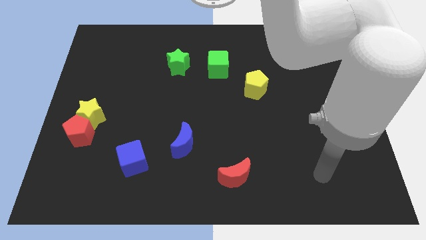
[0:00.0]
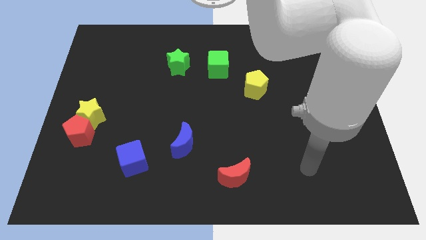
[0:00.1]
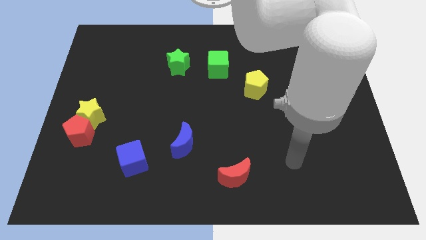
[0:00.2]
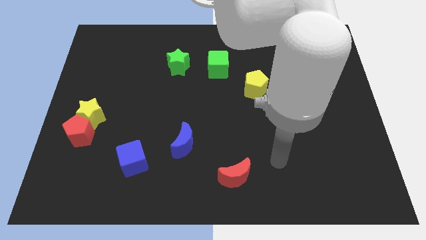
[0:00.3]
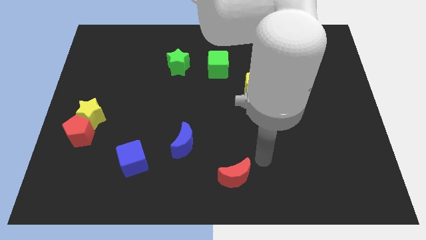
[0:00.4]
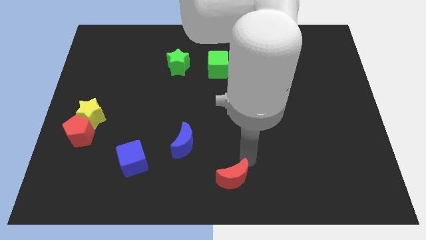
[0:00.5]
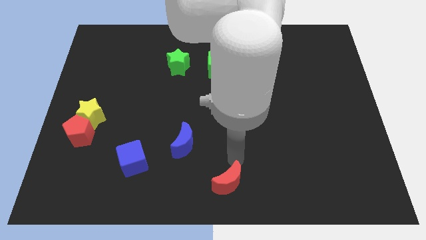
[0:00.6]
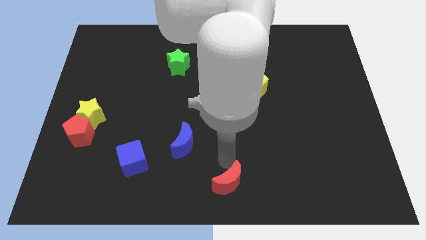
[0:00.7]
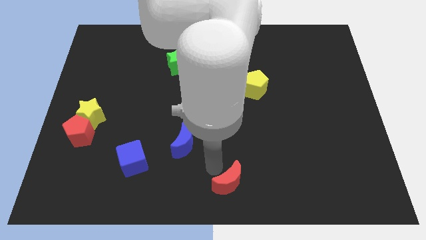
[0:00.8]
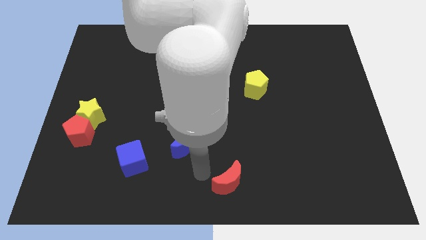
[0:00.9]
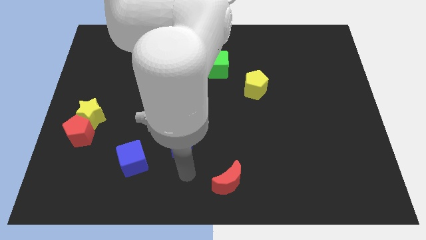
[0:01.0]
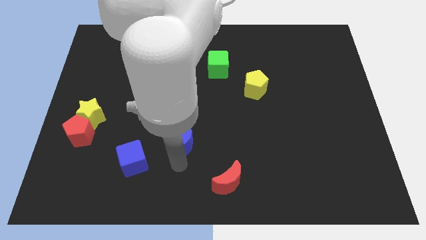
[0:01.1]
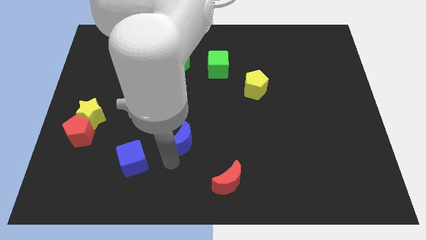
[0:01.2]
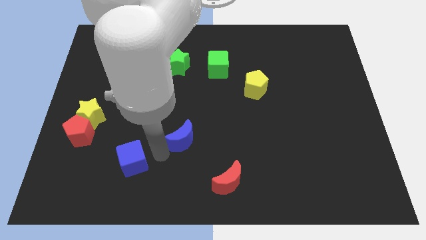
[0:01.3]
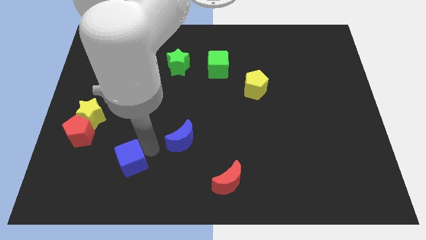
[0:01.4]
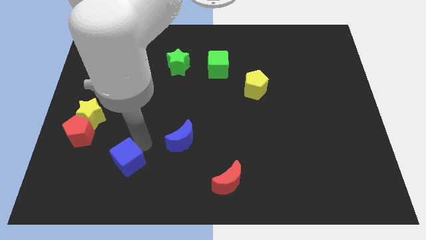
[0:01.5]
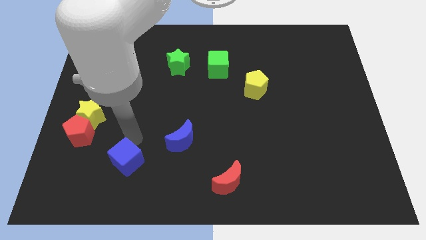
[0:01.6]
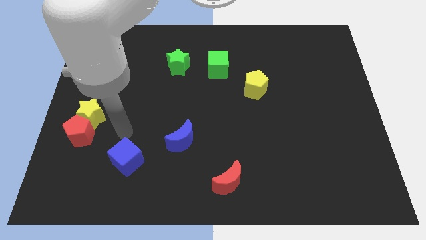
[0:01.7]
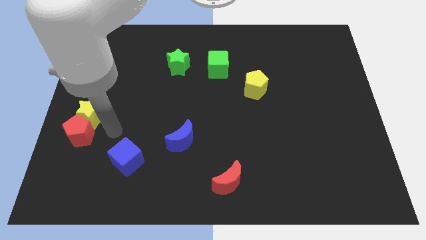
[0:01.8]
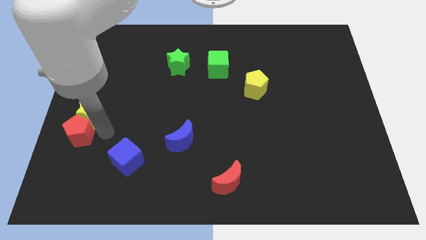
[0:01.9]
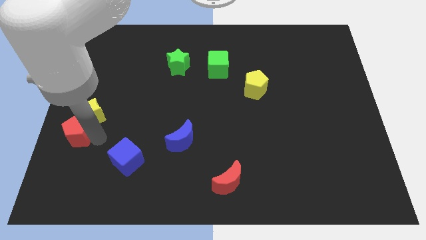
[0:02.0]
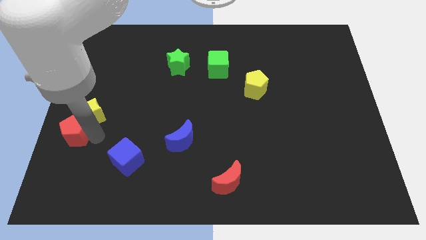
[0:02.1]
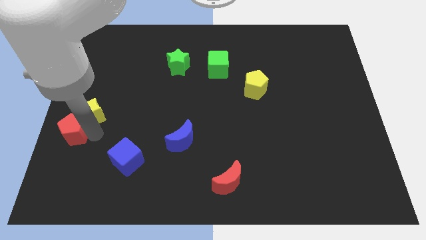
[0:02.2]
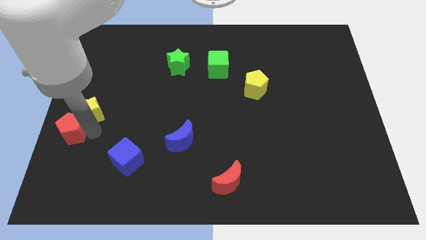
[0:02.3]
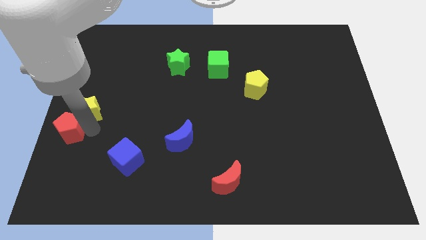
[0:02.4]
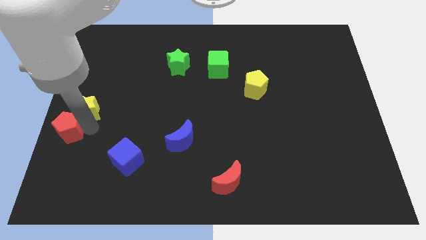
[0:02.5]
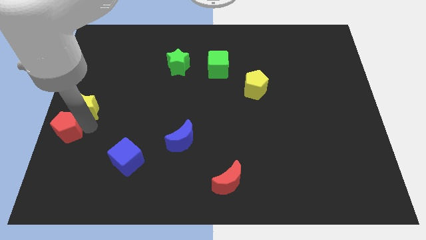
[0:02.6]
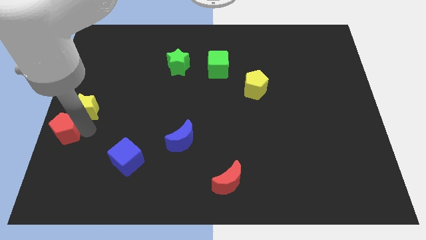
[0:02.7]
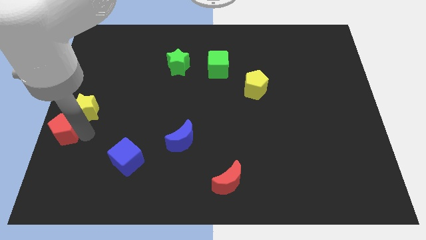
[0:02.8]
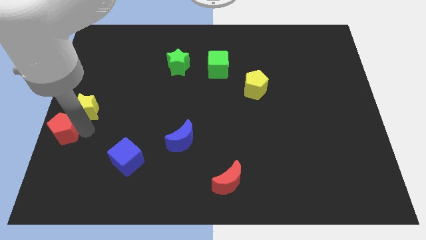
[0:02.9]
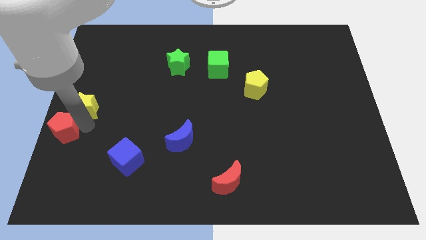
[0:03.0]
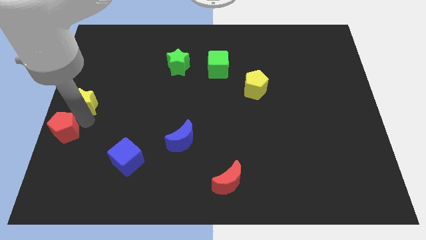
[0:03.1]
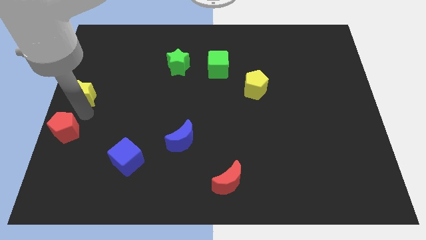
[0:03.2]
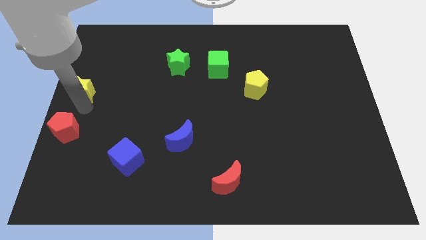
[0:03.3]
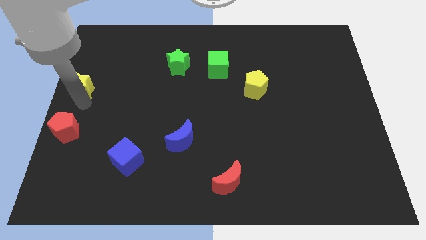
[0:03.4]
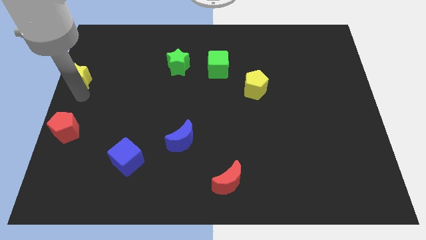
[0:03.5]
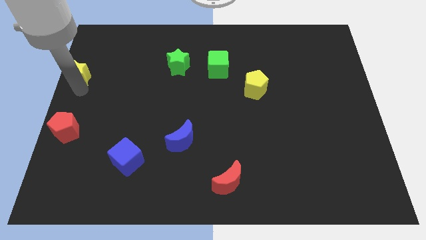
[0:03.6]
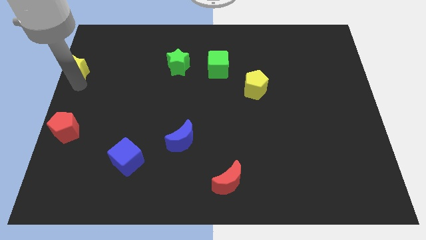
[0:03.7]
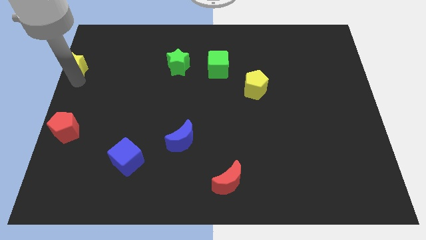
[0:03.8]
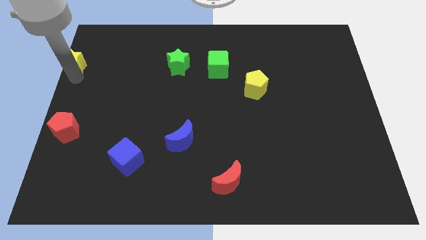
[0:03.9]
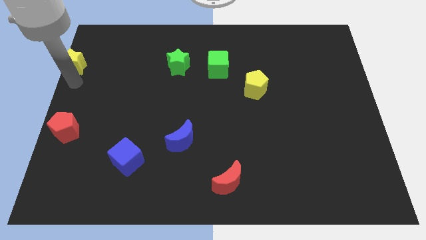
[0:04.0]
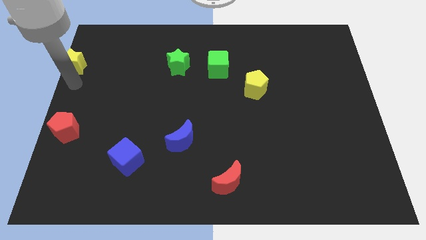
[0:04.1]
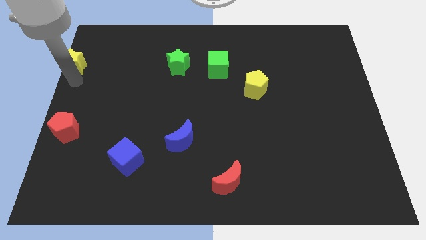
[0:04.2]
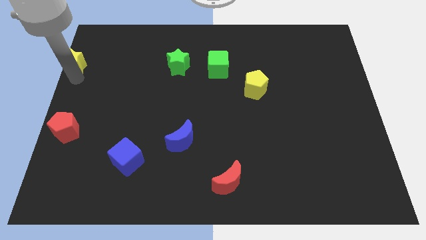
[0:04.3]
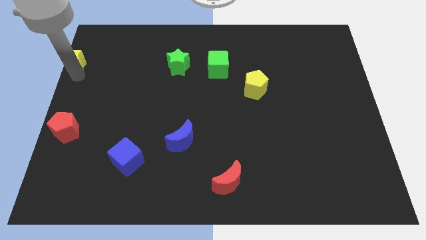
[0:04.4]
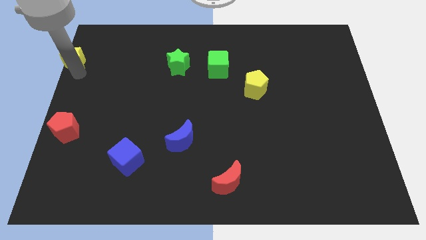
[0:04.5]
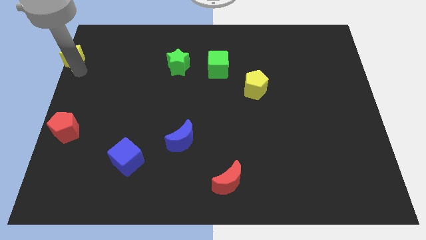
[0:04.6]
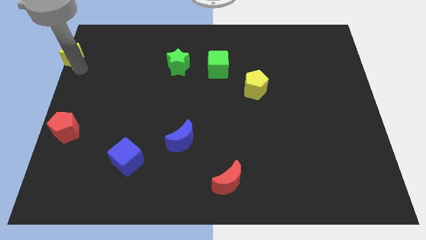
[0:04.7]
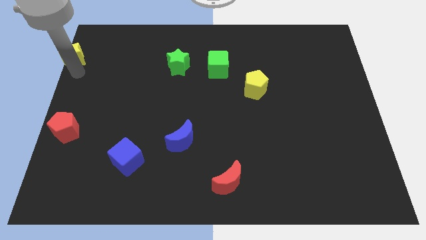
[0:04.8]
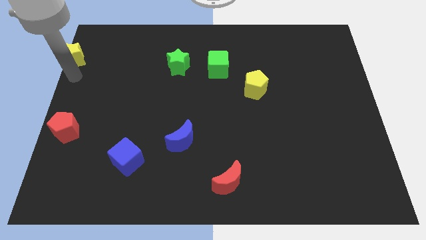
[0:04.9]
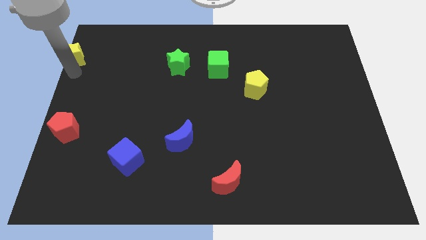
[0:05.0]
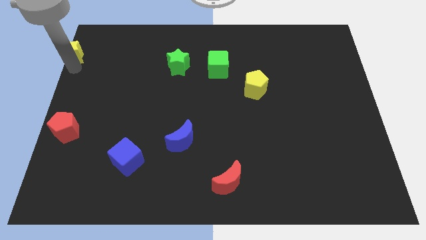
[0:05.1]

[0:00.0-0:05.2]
push the yellow star to the top left corner

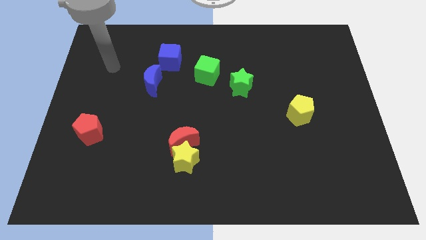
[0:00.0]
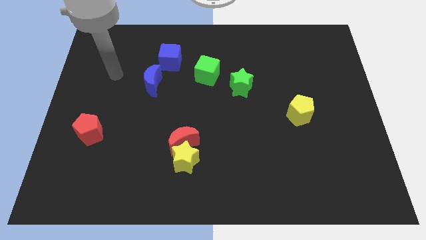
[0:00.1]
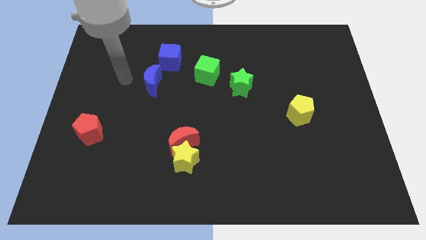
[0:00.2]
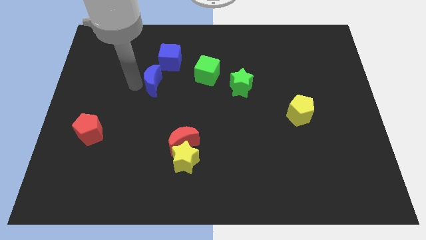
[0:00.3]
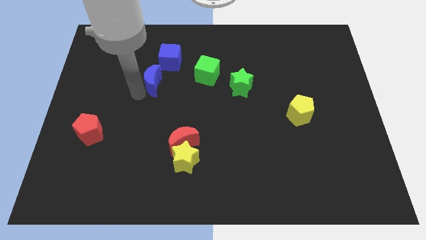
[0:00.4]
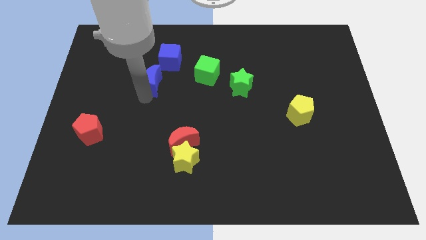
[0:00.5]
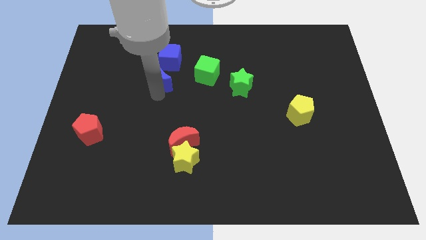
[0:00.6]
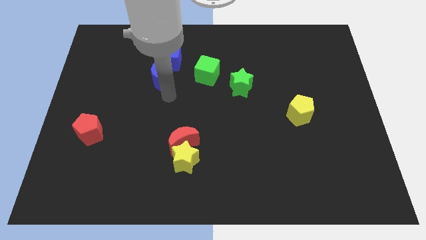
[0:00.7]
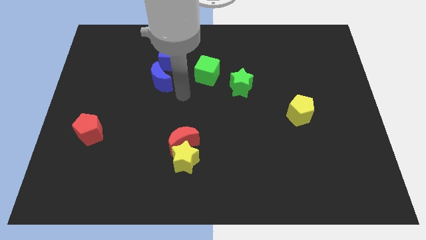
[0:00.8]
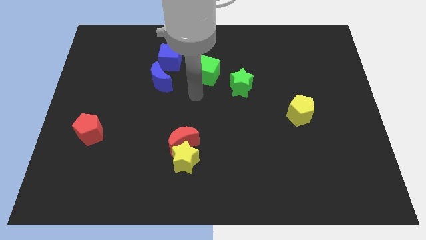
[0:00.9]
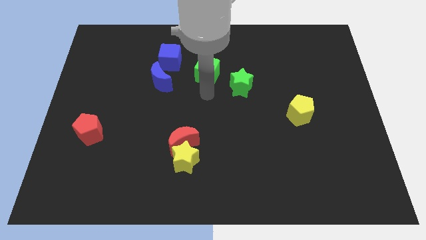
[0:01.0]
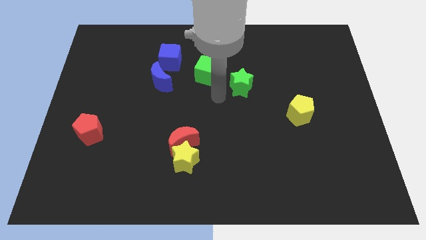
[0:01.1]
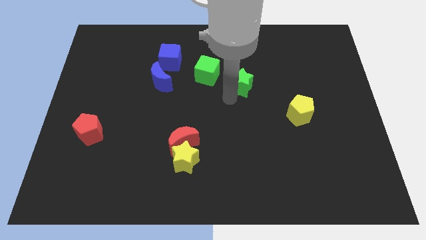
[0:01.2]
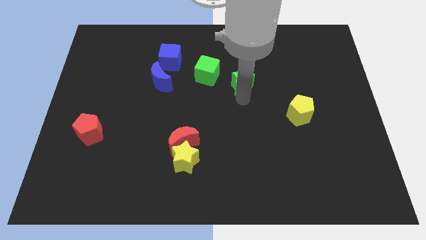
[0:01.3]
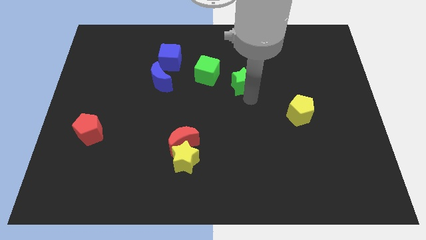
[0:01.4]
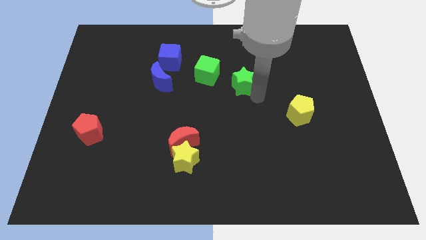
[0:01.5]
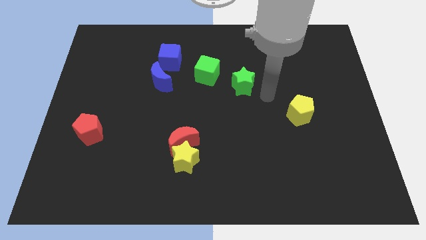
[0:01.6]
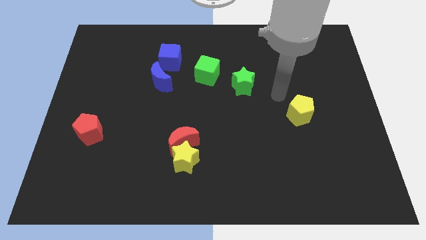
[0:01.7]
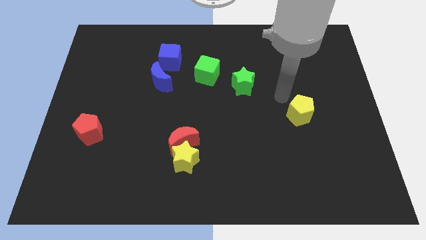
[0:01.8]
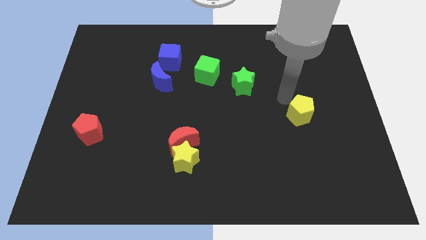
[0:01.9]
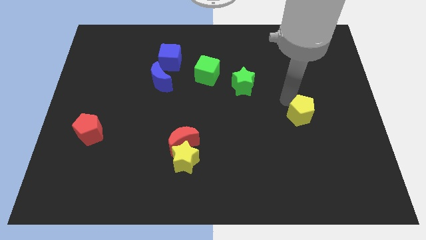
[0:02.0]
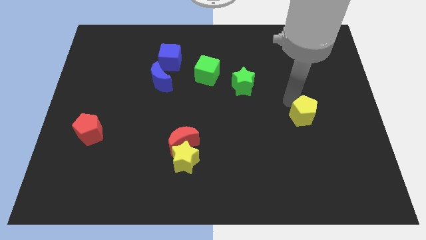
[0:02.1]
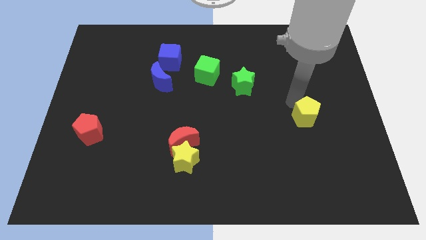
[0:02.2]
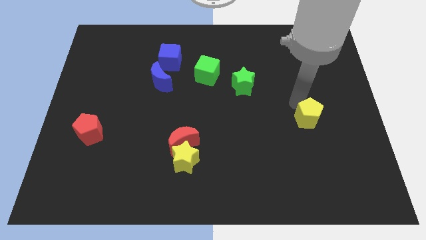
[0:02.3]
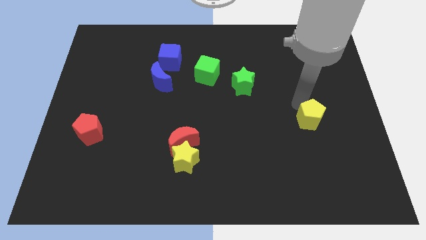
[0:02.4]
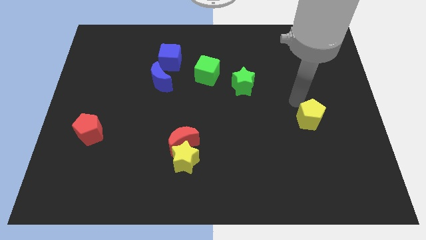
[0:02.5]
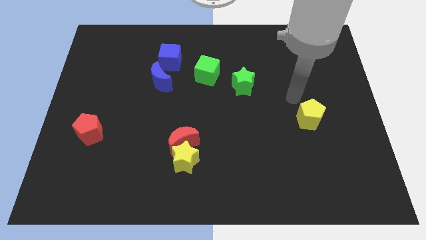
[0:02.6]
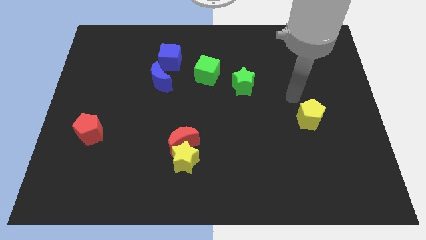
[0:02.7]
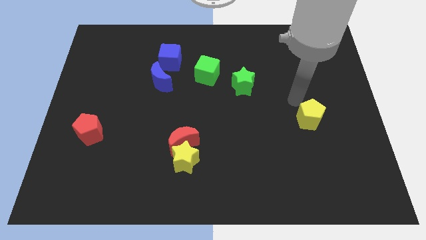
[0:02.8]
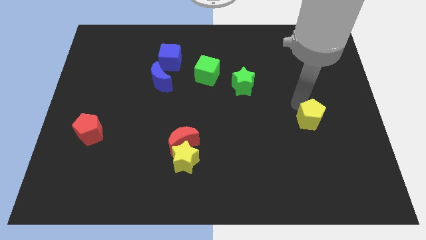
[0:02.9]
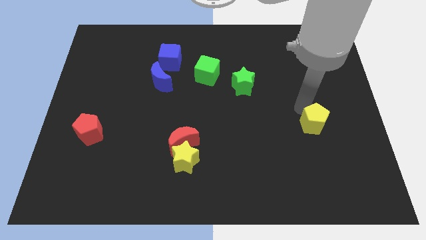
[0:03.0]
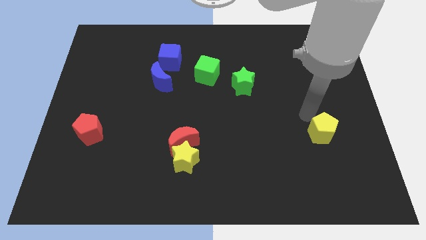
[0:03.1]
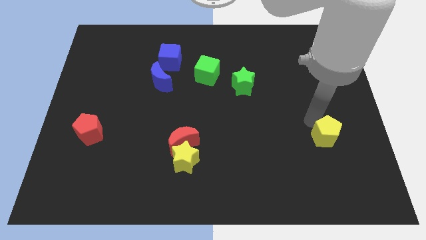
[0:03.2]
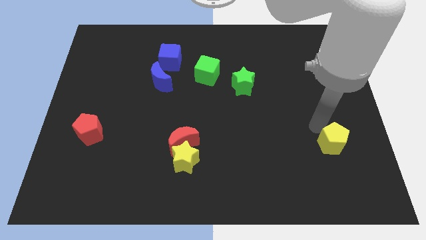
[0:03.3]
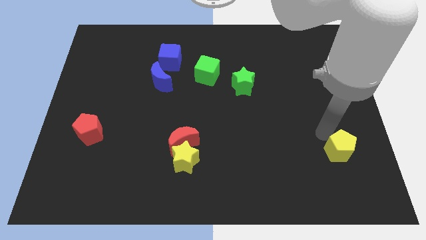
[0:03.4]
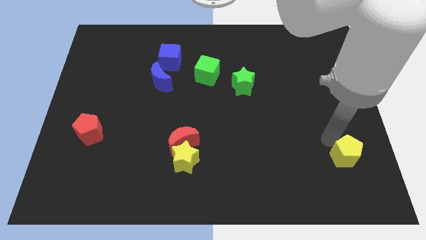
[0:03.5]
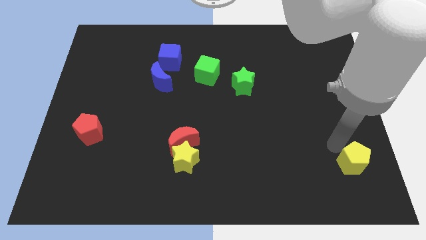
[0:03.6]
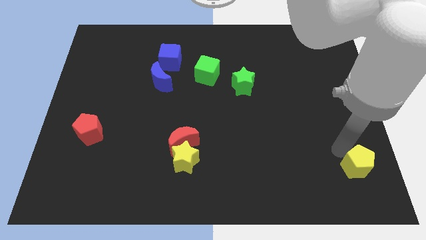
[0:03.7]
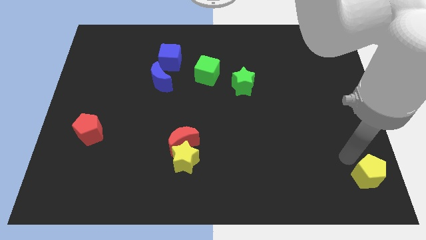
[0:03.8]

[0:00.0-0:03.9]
push the yellow pentagon to the bottom right corner
